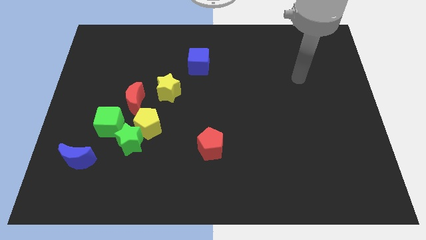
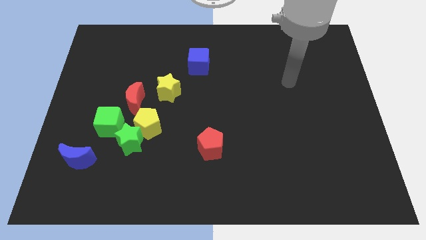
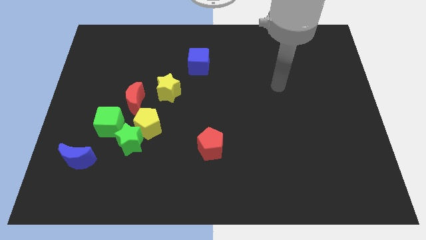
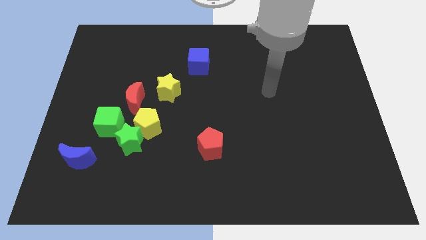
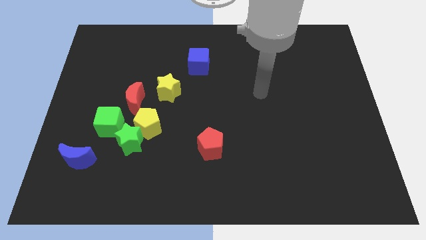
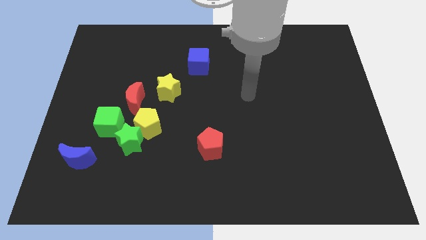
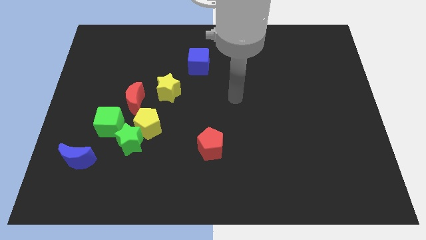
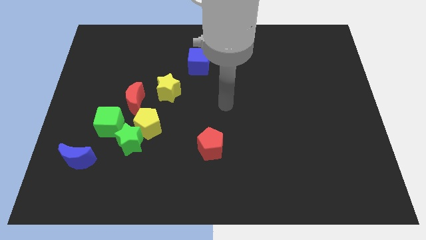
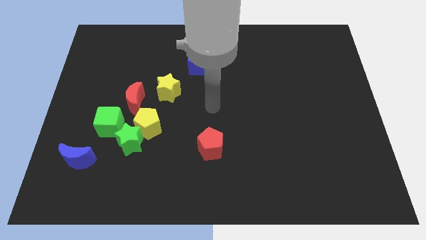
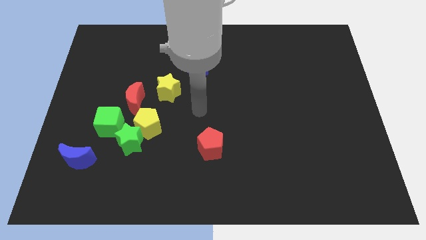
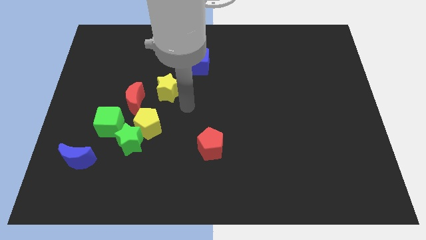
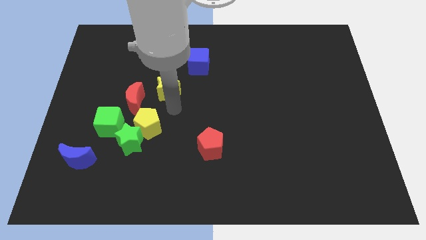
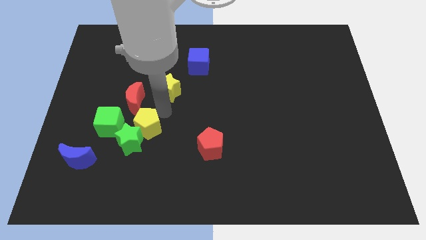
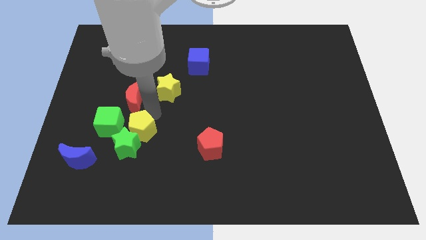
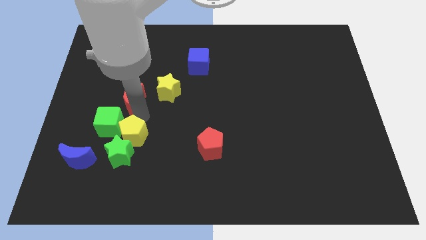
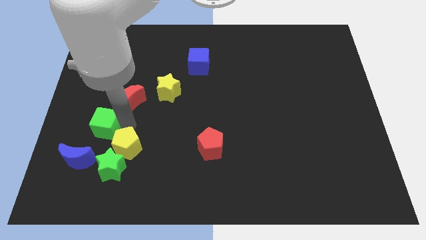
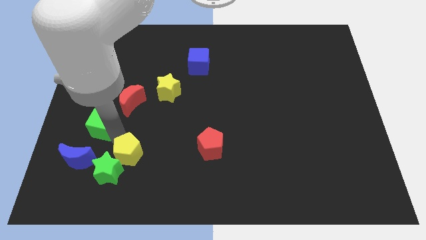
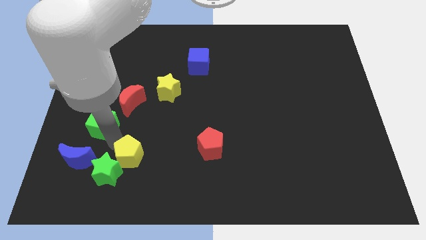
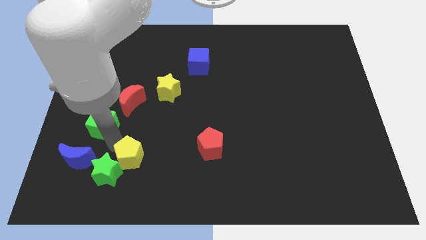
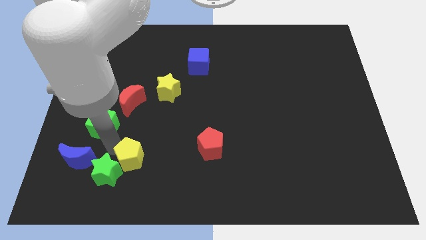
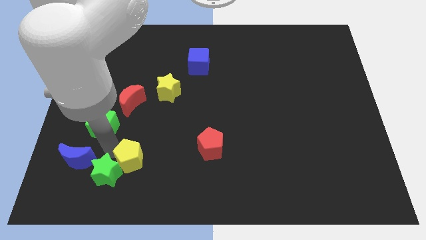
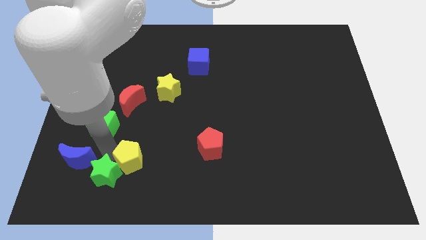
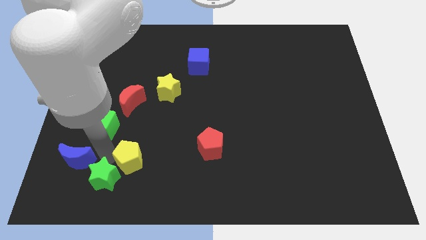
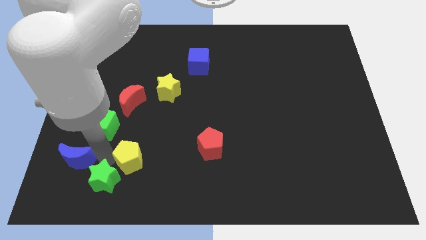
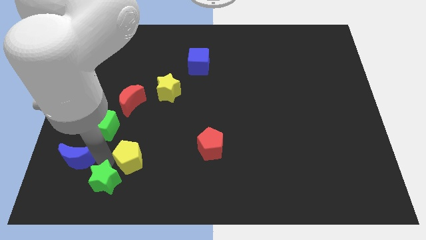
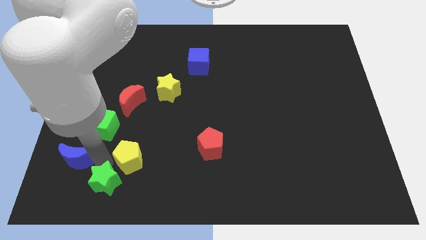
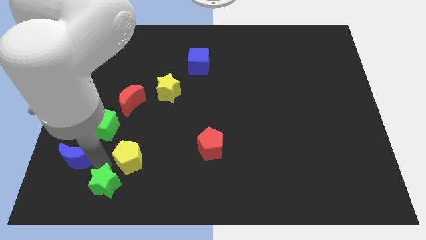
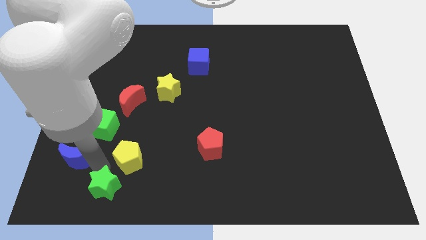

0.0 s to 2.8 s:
move the green star away from the yellow pentagon and green cube

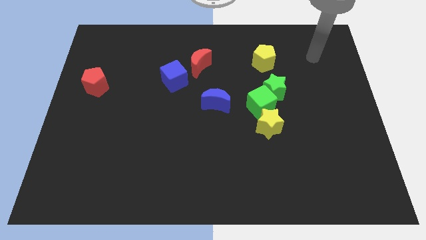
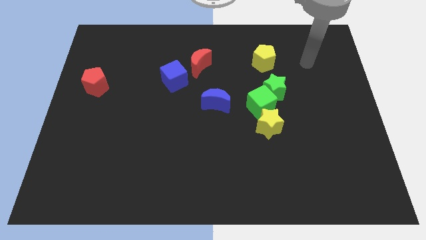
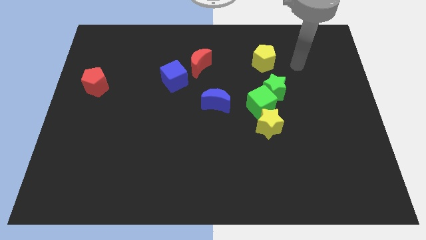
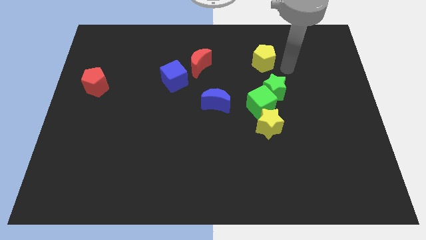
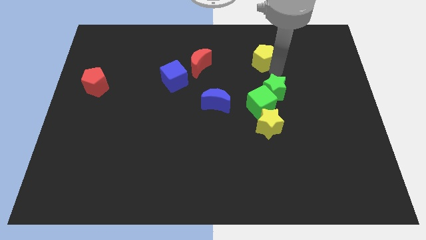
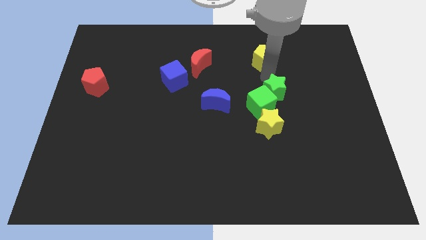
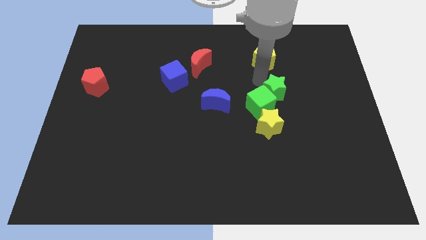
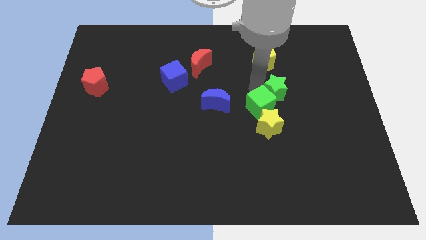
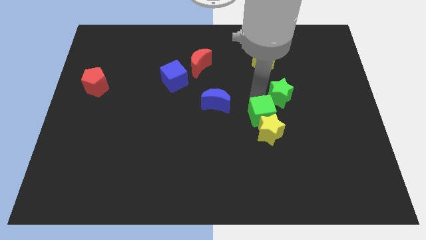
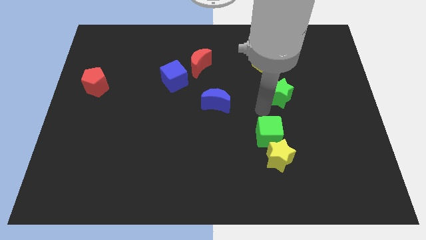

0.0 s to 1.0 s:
move the green star away from the green cube

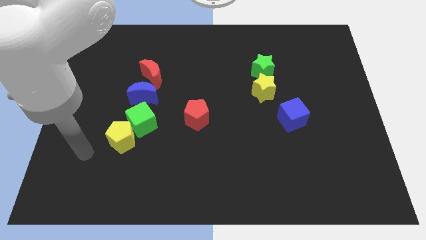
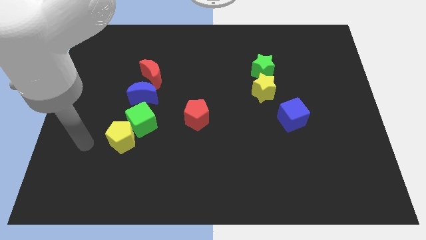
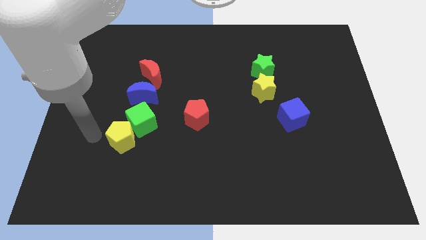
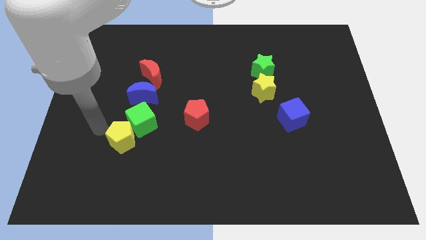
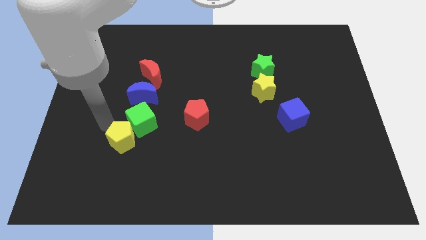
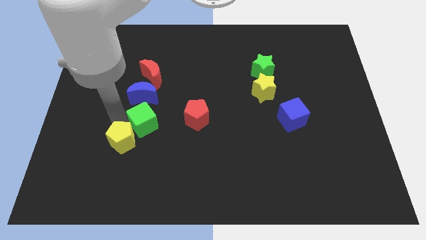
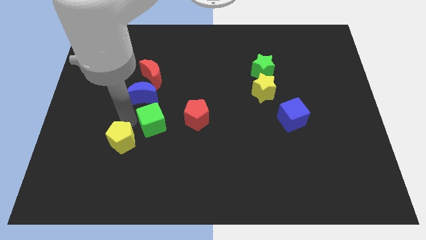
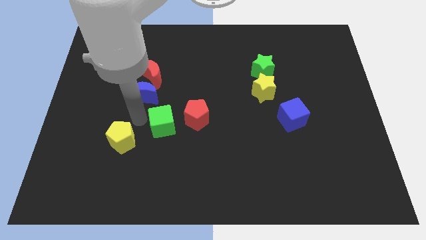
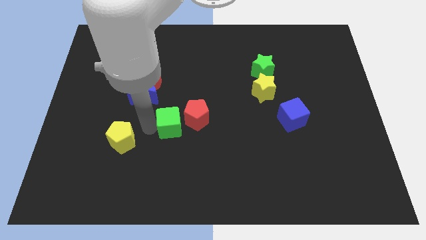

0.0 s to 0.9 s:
pull the yellow pentagon apart from the green cube

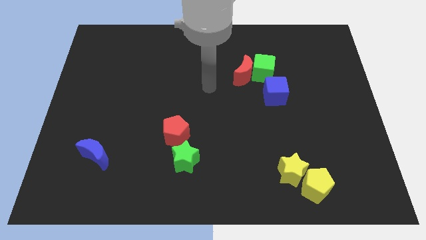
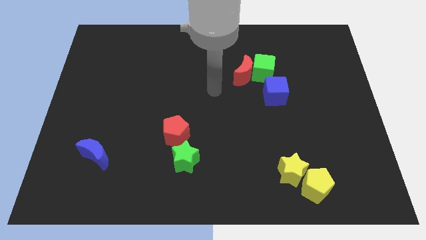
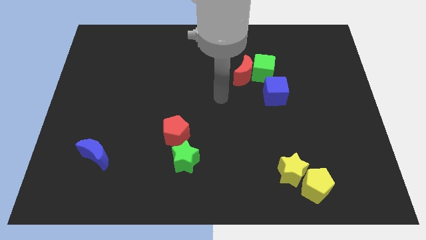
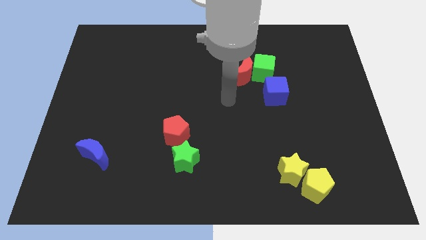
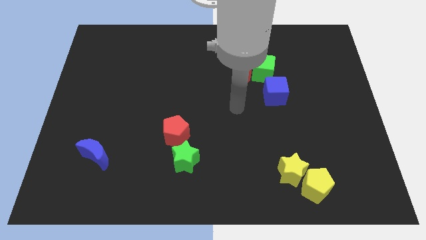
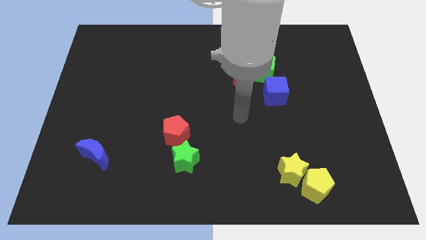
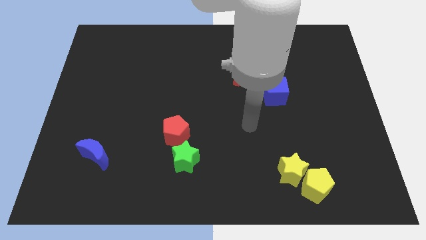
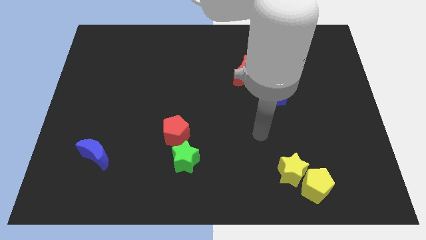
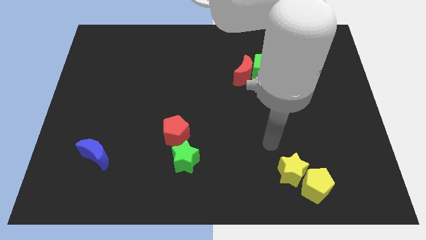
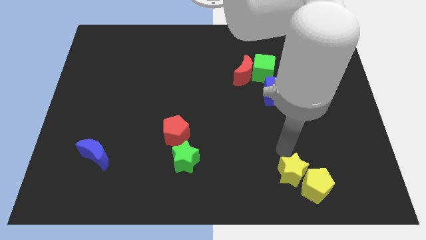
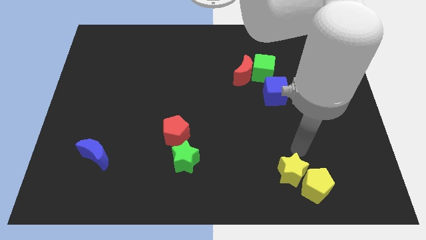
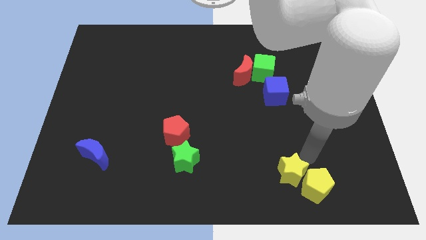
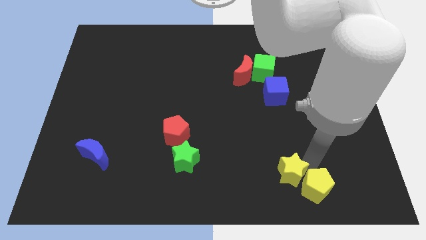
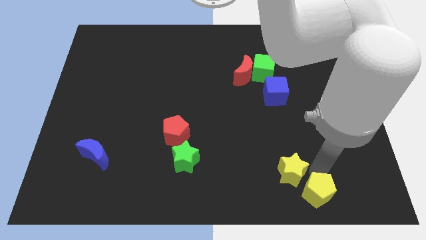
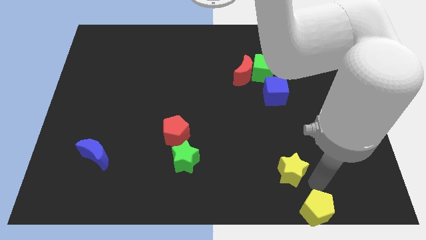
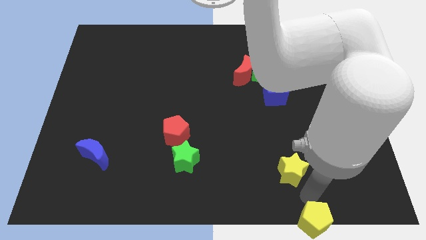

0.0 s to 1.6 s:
separate the yellow star from the yellow pentagon

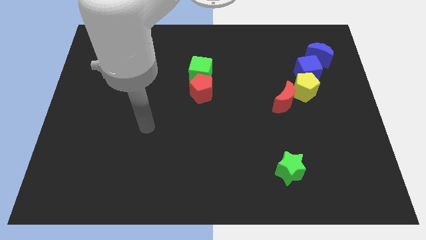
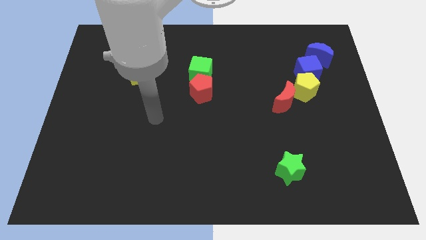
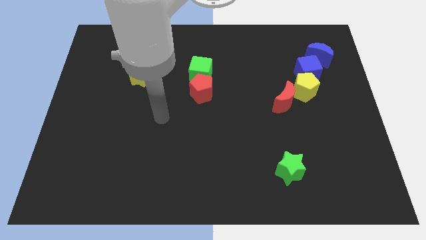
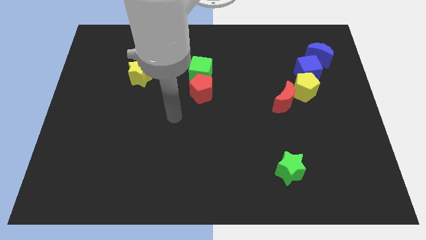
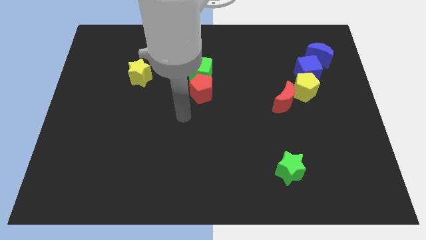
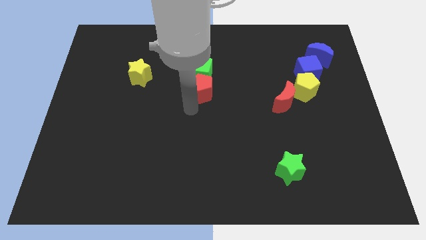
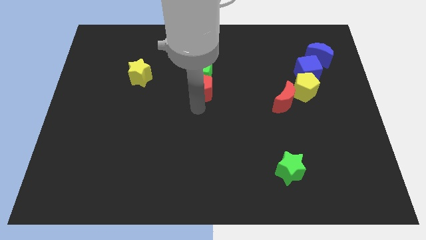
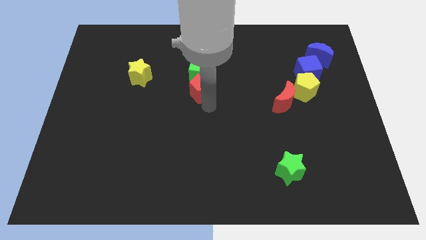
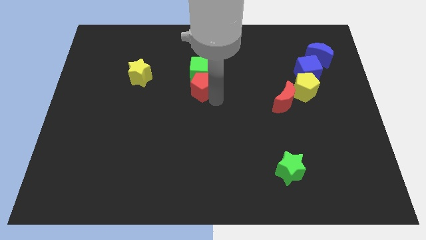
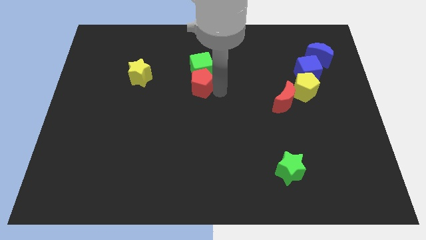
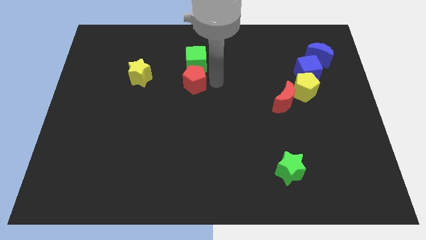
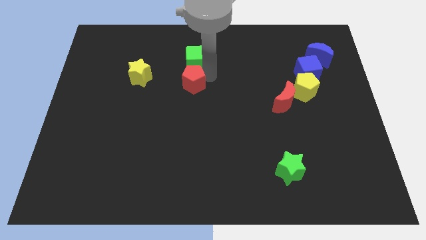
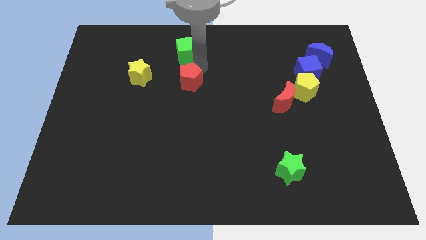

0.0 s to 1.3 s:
separate the red pentagon from the green cube

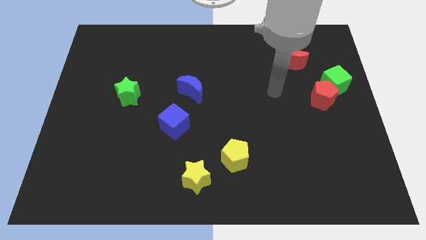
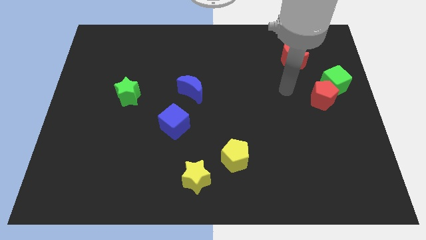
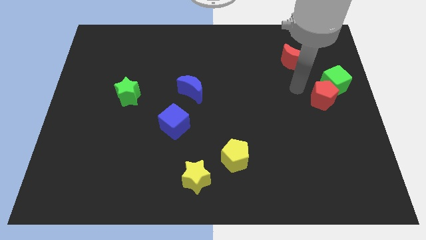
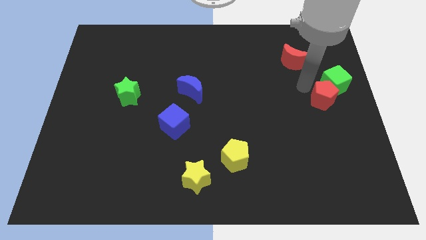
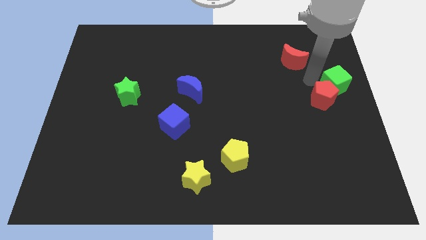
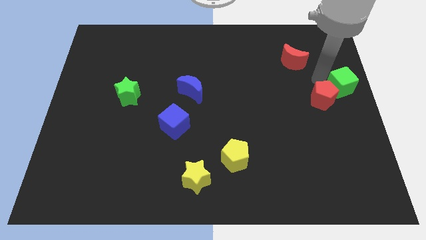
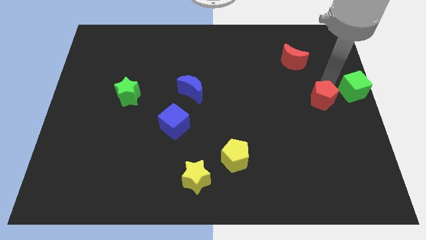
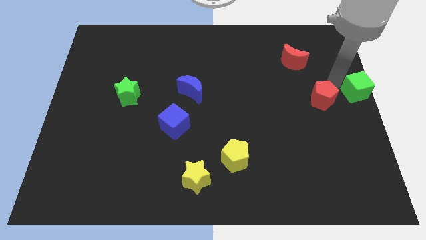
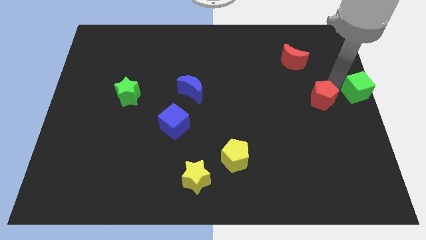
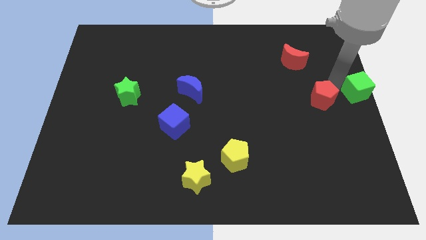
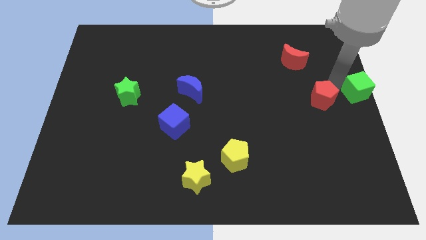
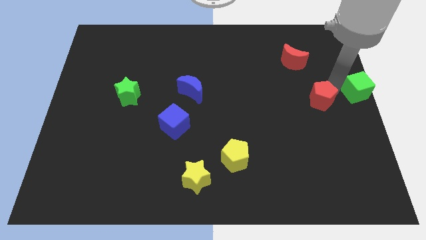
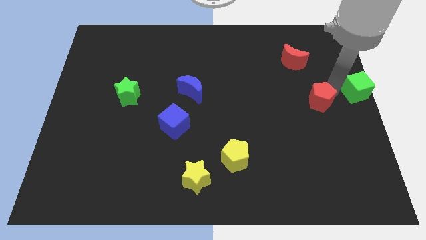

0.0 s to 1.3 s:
pull the red pentagon apart from the green cube

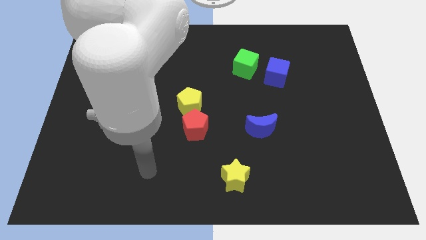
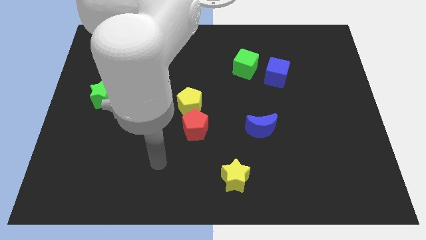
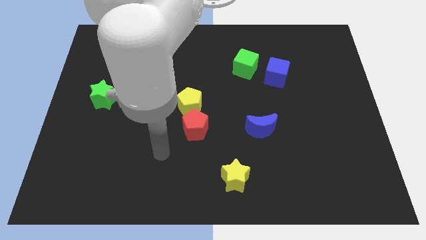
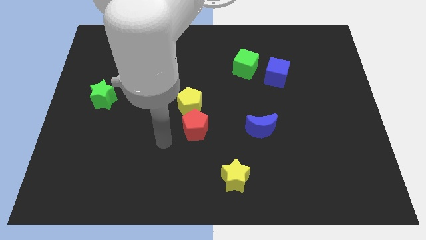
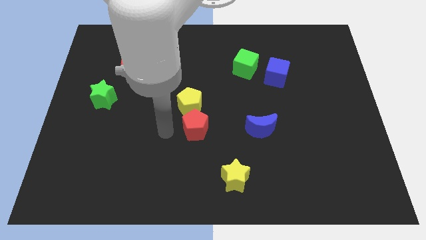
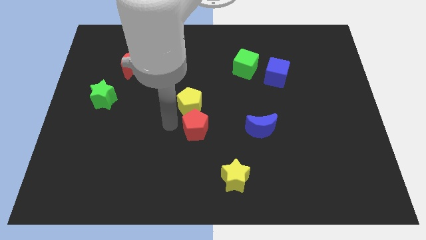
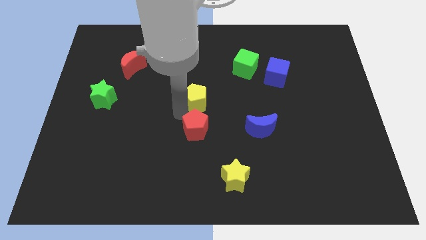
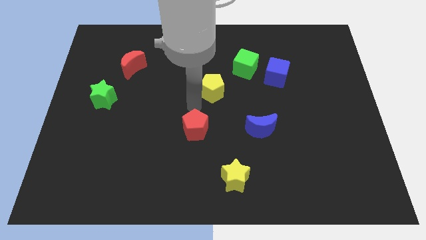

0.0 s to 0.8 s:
pull the red pentagon apart from the yellow pentagon
